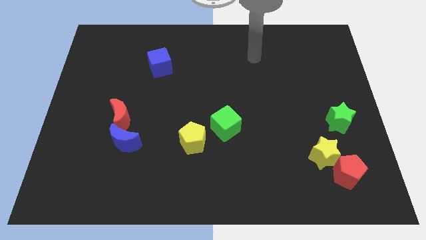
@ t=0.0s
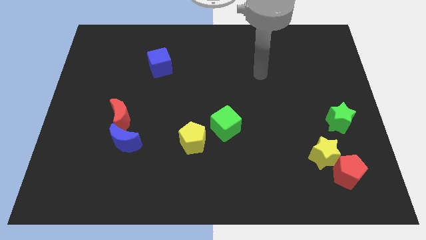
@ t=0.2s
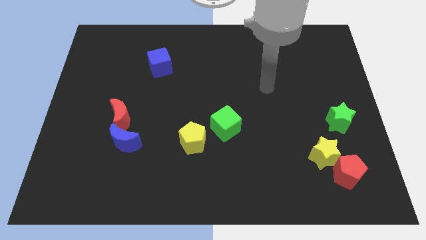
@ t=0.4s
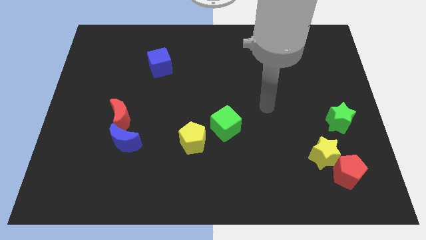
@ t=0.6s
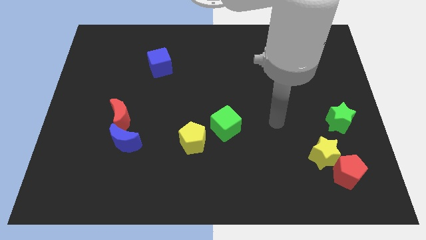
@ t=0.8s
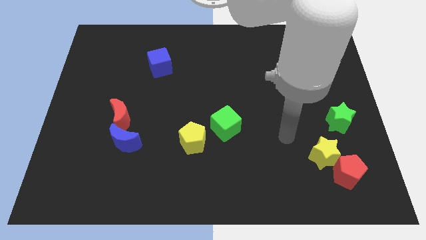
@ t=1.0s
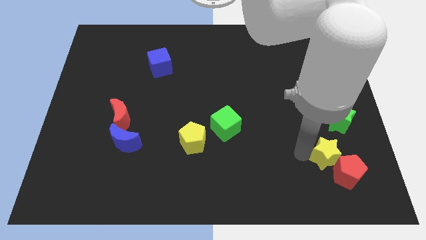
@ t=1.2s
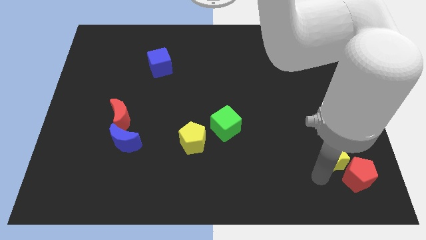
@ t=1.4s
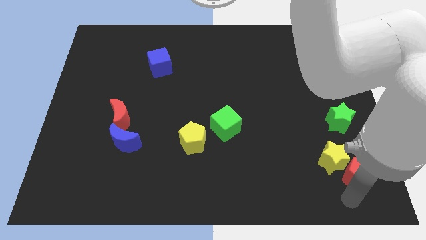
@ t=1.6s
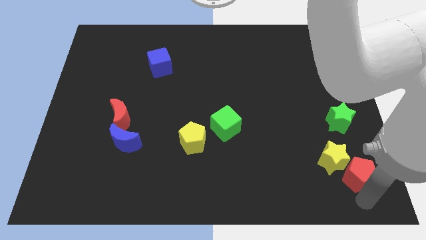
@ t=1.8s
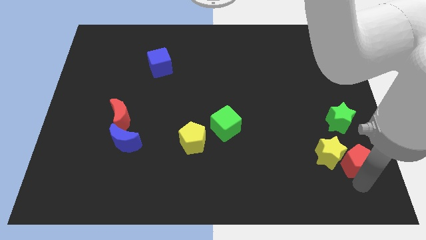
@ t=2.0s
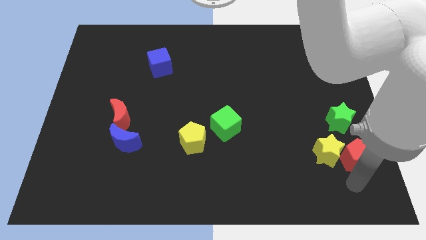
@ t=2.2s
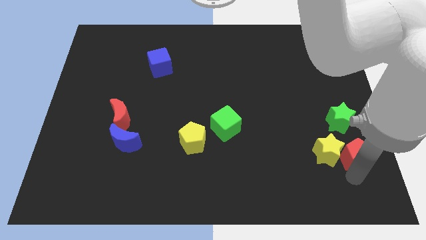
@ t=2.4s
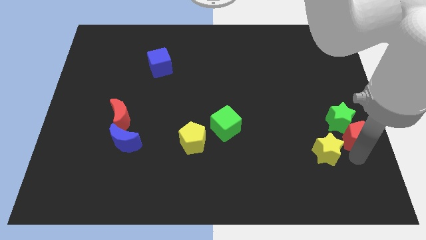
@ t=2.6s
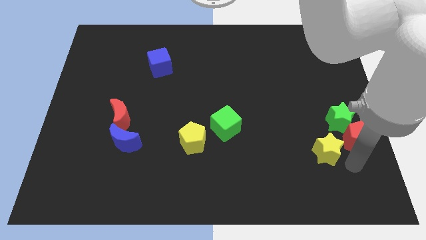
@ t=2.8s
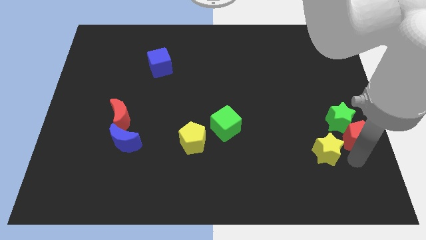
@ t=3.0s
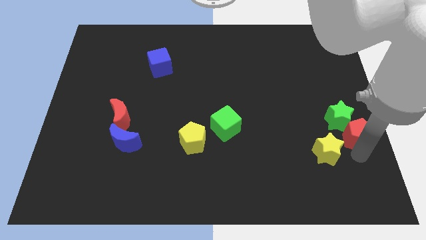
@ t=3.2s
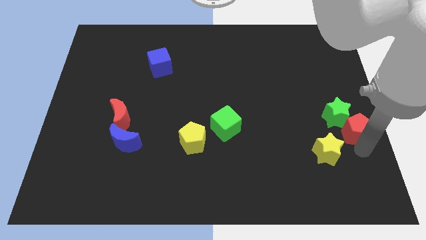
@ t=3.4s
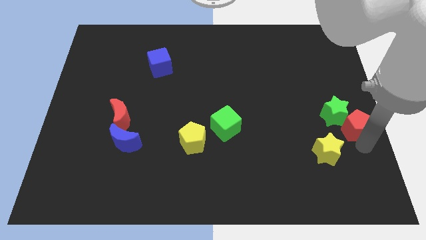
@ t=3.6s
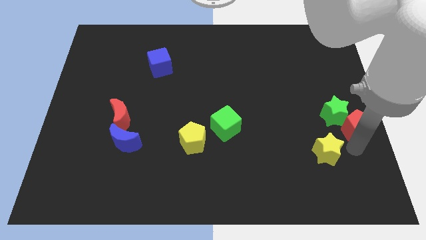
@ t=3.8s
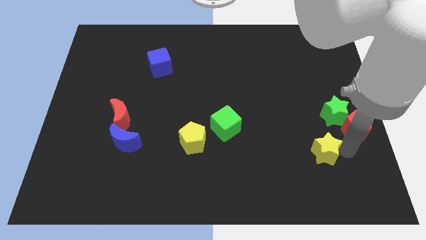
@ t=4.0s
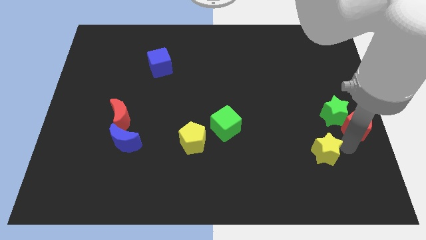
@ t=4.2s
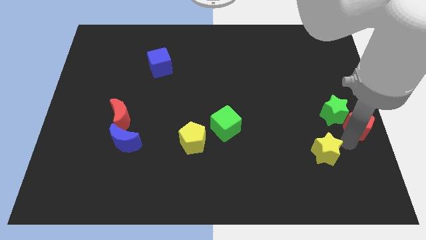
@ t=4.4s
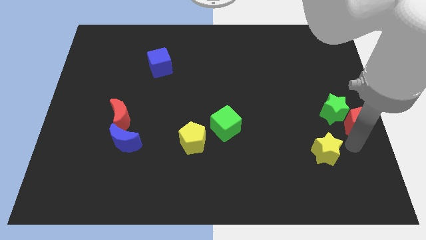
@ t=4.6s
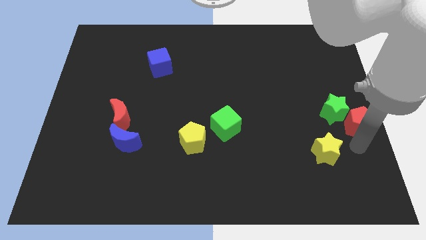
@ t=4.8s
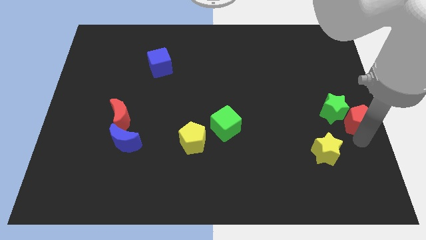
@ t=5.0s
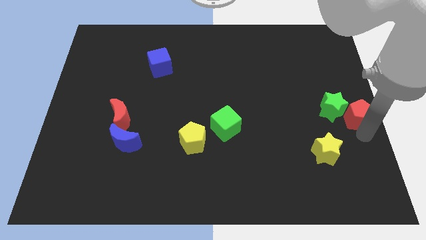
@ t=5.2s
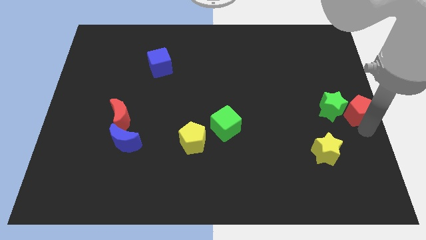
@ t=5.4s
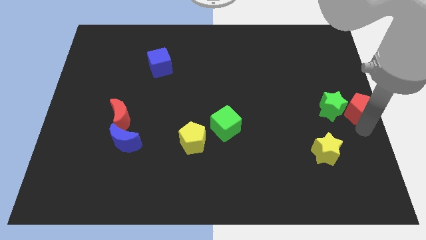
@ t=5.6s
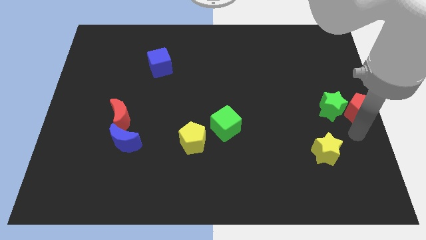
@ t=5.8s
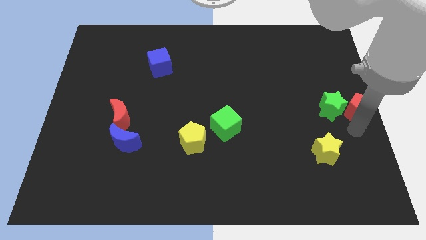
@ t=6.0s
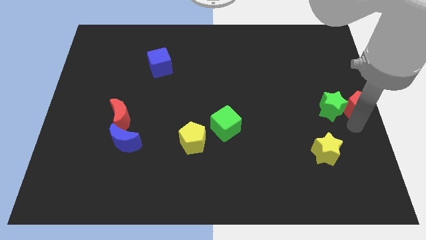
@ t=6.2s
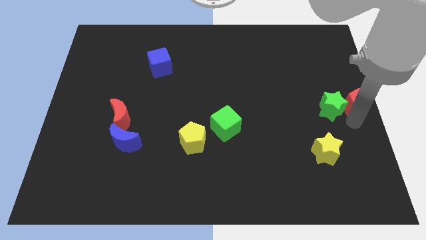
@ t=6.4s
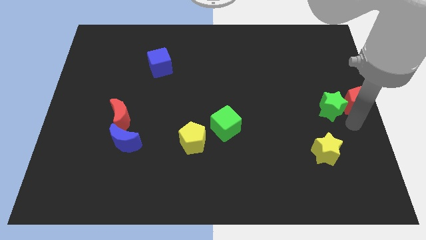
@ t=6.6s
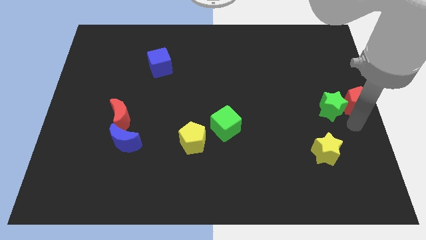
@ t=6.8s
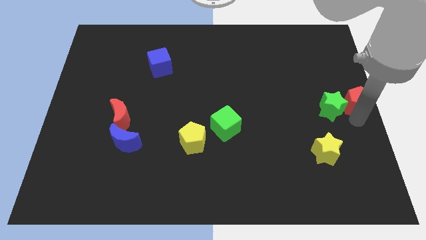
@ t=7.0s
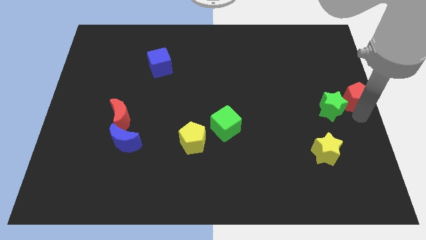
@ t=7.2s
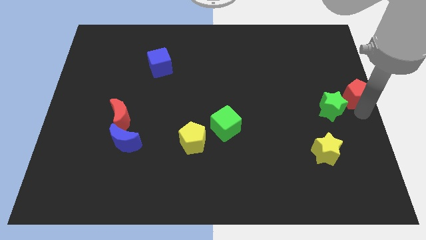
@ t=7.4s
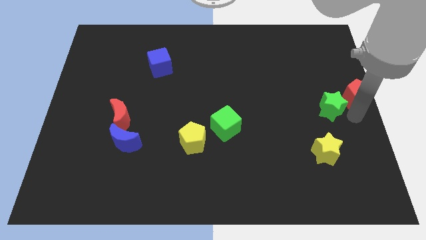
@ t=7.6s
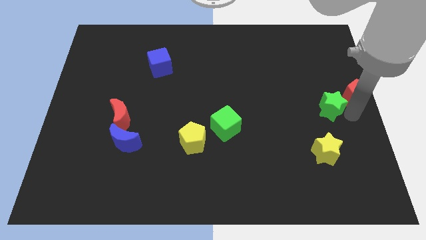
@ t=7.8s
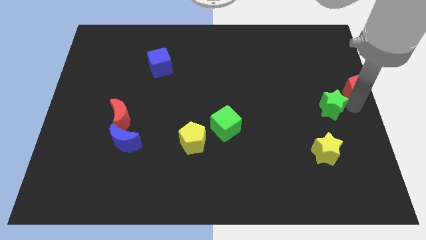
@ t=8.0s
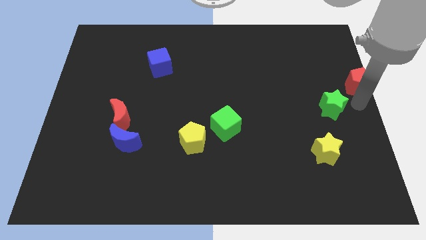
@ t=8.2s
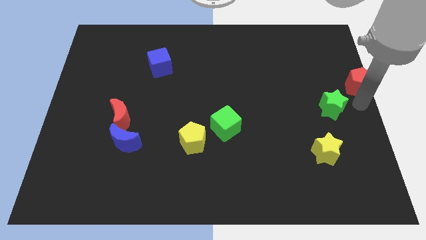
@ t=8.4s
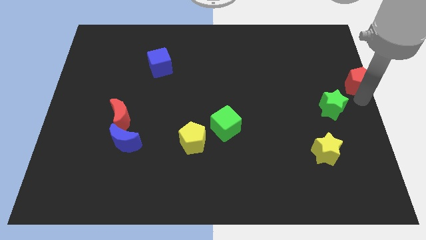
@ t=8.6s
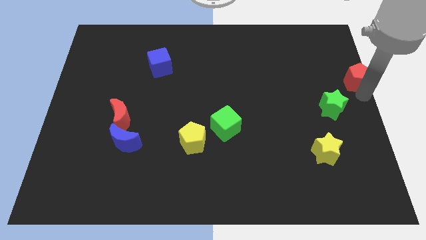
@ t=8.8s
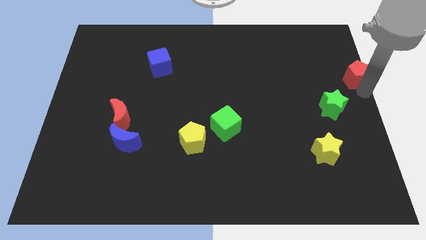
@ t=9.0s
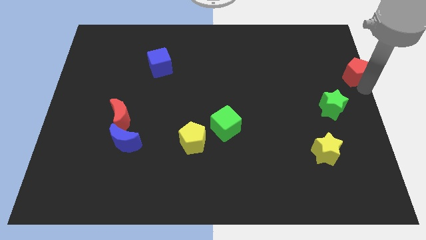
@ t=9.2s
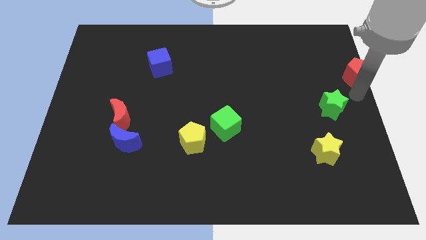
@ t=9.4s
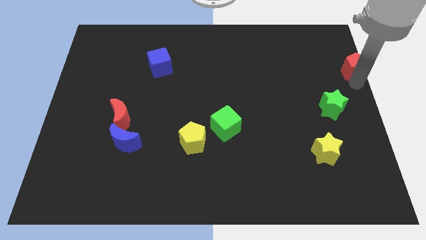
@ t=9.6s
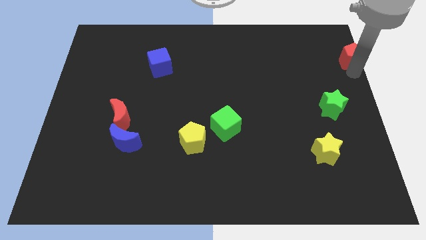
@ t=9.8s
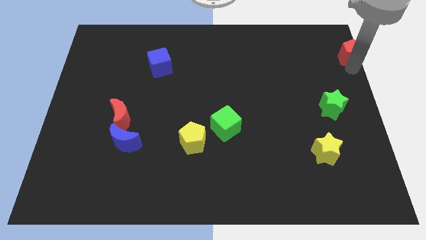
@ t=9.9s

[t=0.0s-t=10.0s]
move the red pentagon to the top right of the board

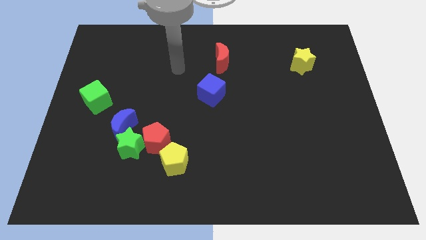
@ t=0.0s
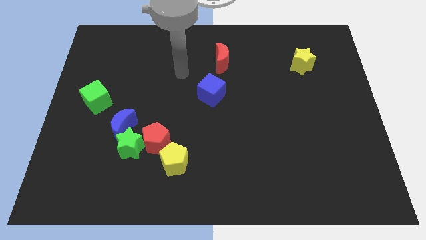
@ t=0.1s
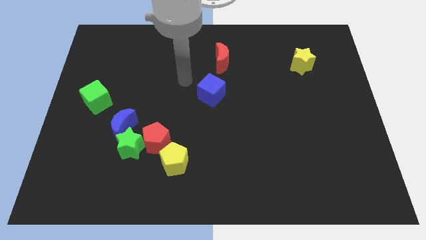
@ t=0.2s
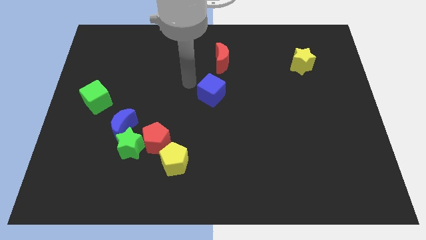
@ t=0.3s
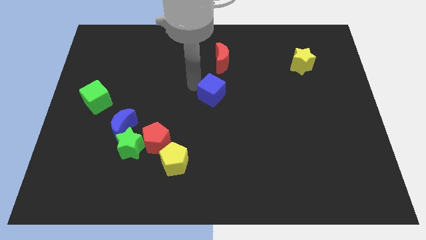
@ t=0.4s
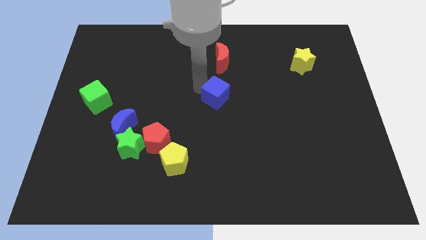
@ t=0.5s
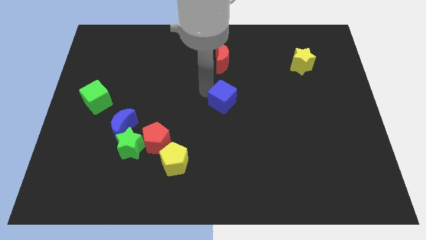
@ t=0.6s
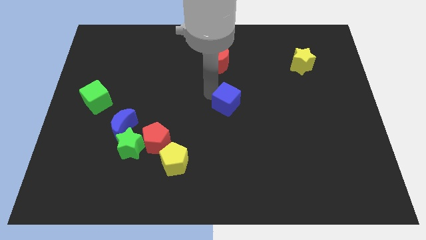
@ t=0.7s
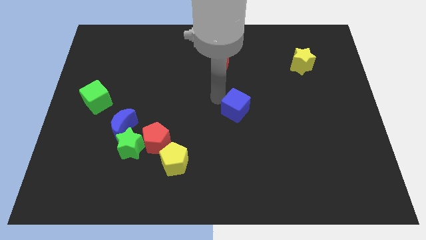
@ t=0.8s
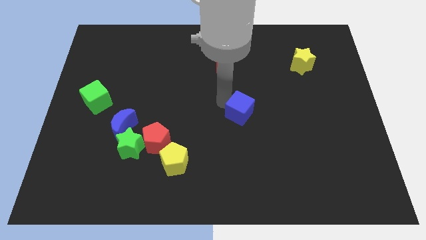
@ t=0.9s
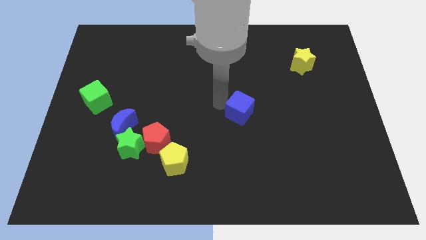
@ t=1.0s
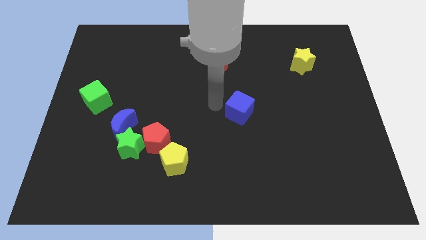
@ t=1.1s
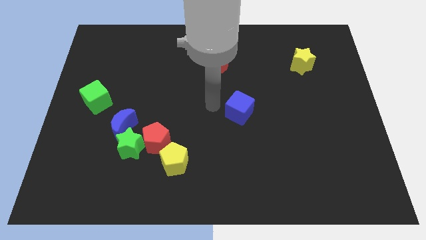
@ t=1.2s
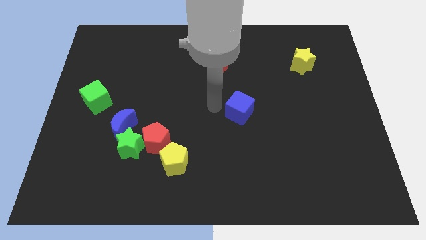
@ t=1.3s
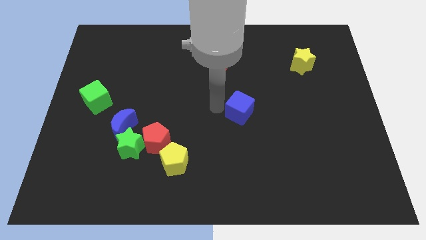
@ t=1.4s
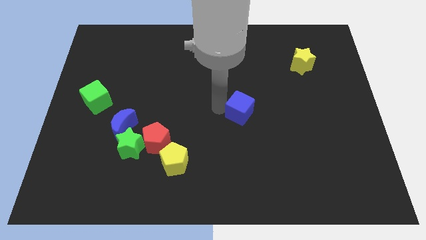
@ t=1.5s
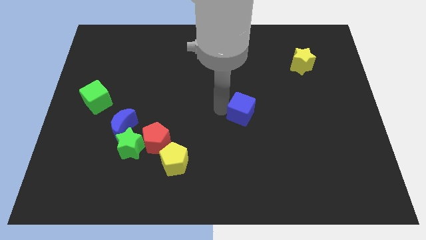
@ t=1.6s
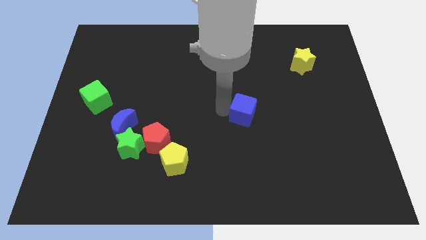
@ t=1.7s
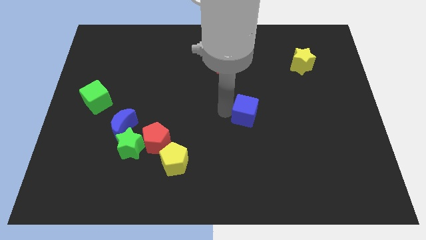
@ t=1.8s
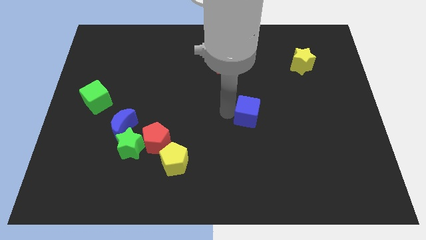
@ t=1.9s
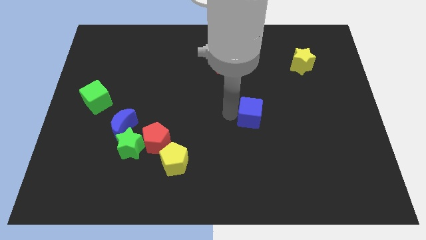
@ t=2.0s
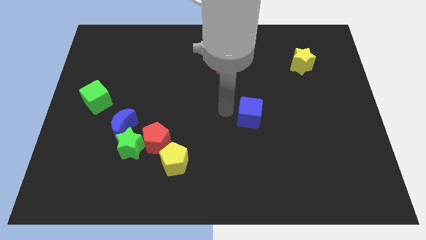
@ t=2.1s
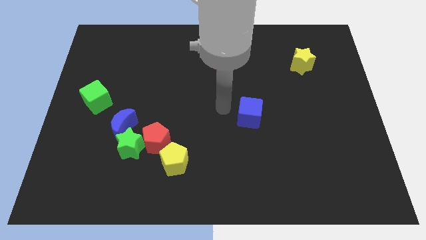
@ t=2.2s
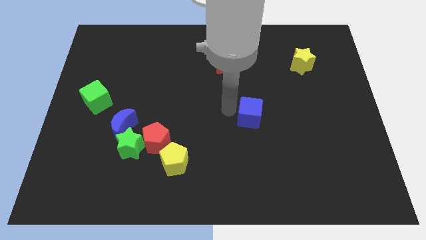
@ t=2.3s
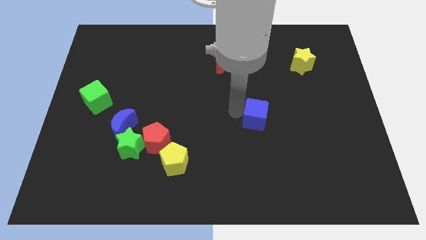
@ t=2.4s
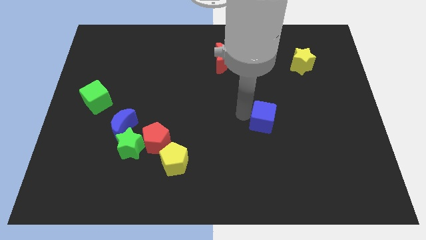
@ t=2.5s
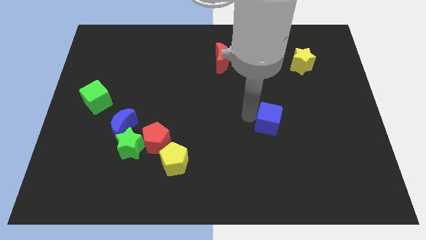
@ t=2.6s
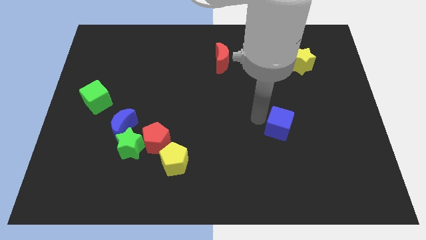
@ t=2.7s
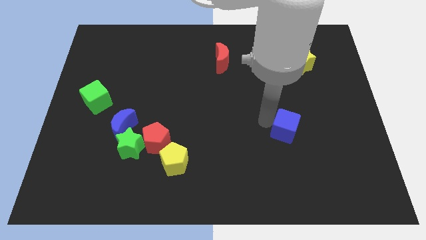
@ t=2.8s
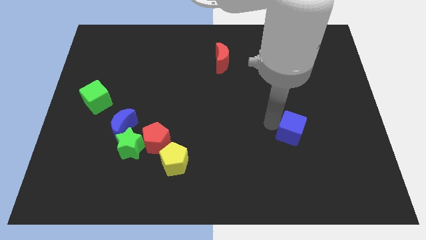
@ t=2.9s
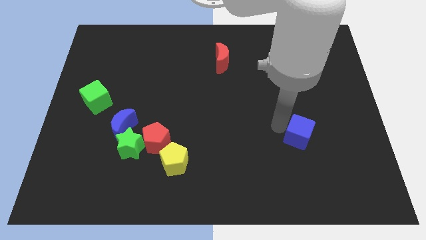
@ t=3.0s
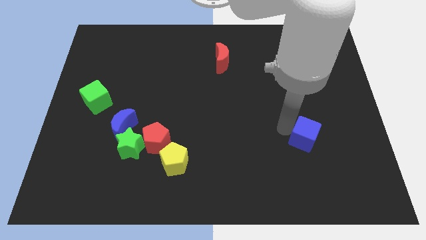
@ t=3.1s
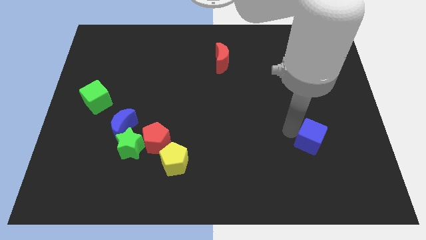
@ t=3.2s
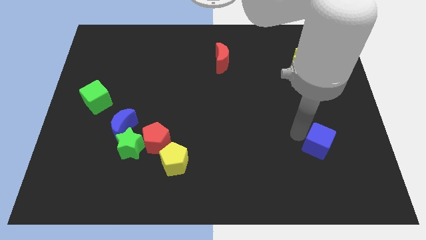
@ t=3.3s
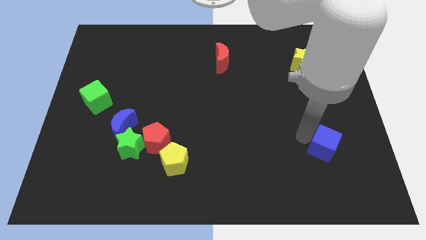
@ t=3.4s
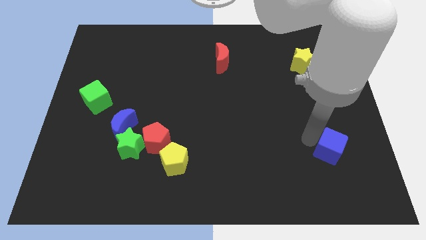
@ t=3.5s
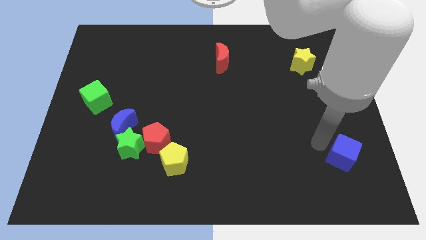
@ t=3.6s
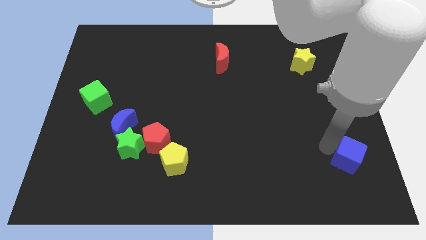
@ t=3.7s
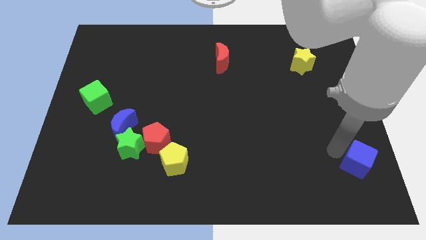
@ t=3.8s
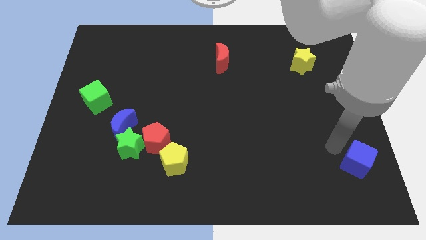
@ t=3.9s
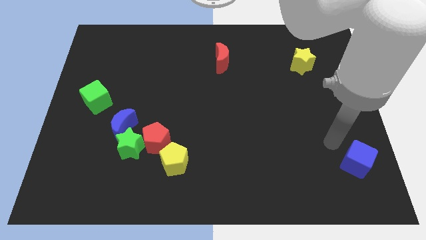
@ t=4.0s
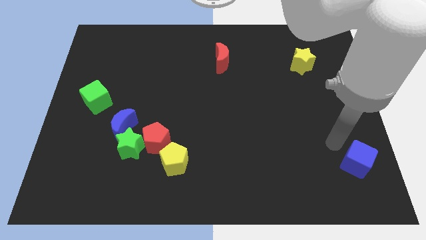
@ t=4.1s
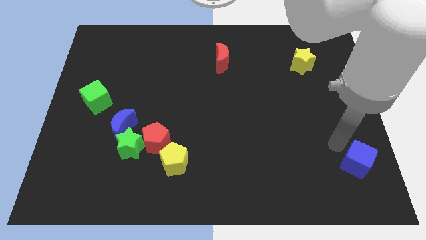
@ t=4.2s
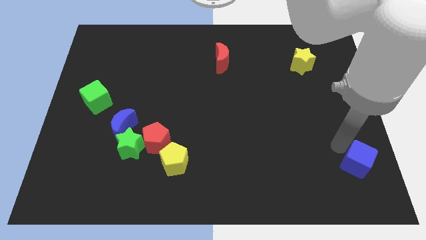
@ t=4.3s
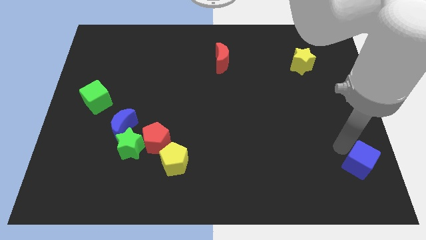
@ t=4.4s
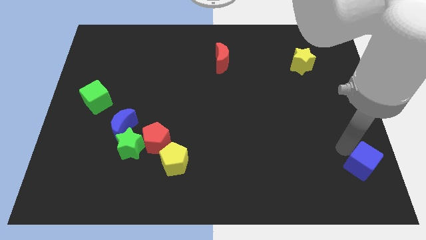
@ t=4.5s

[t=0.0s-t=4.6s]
push the blue cube to the lower right corner
